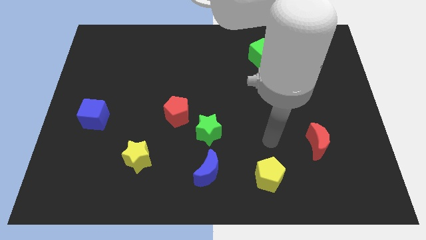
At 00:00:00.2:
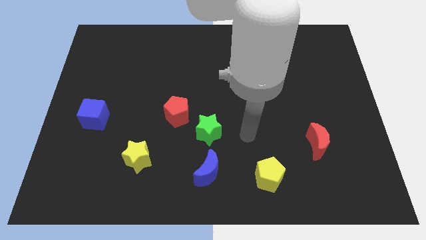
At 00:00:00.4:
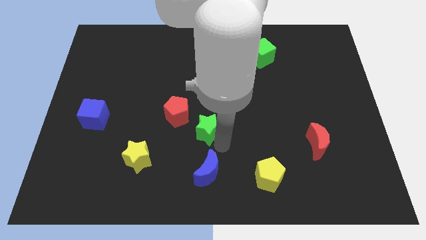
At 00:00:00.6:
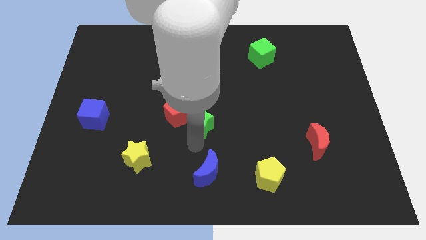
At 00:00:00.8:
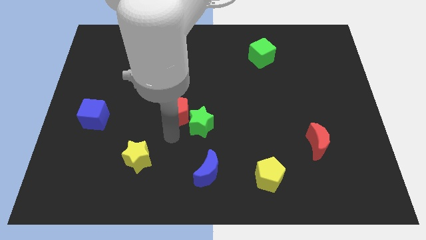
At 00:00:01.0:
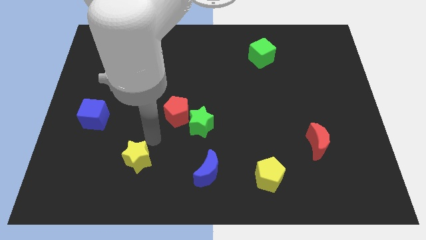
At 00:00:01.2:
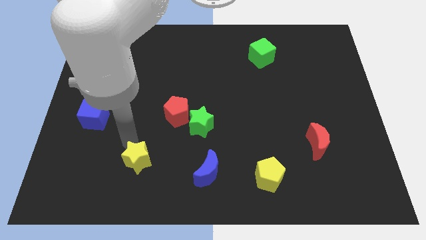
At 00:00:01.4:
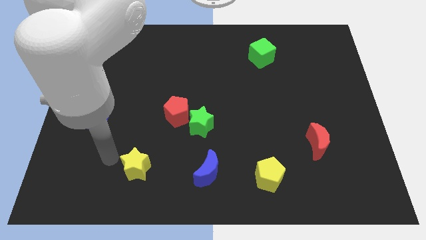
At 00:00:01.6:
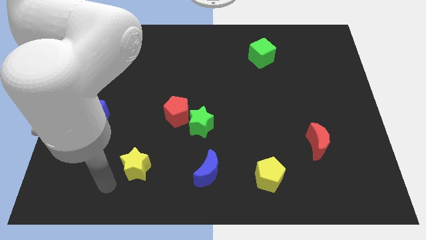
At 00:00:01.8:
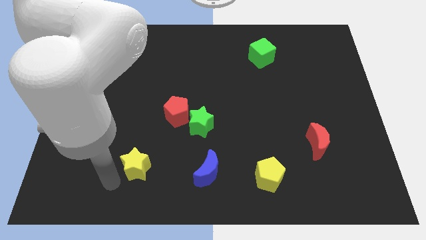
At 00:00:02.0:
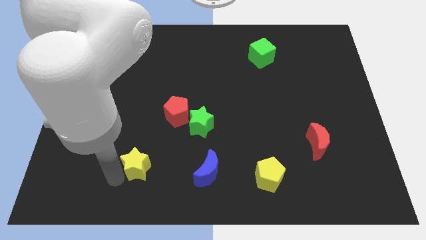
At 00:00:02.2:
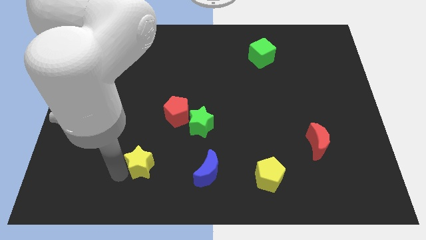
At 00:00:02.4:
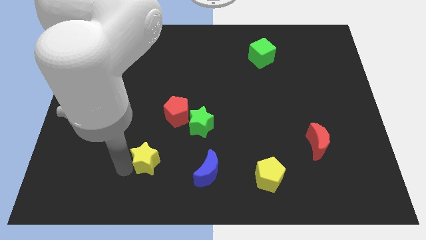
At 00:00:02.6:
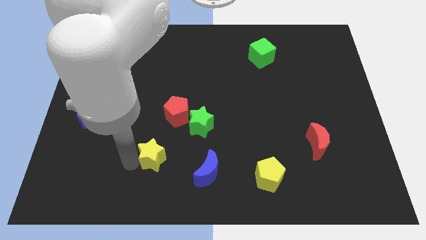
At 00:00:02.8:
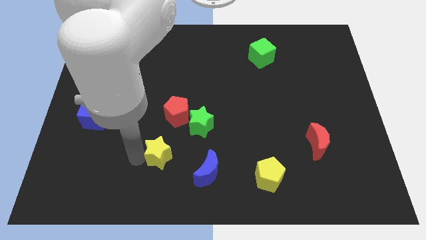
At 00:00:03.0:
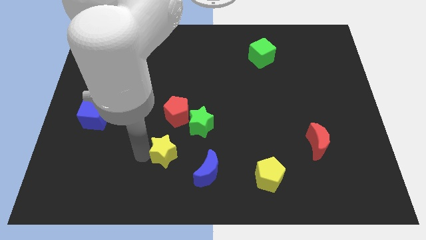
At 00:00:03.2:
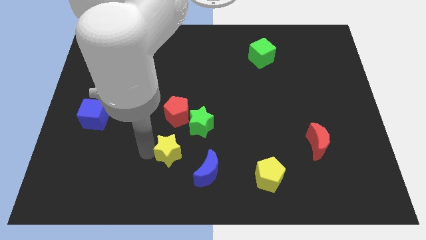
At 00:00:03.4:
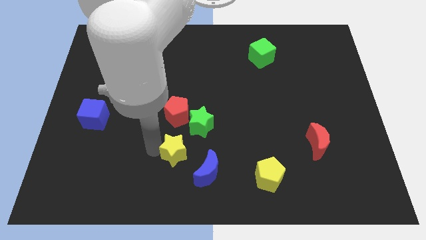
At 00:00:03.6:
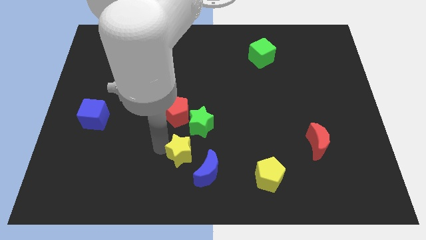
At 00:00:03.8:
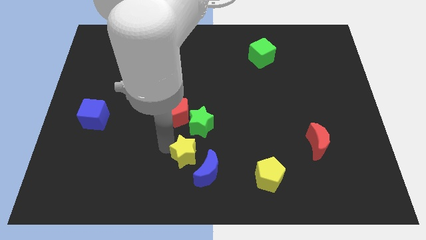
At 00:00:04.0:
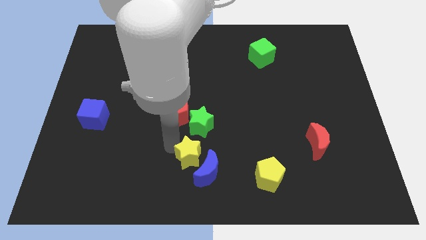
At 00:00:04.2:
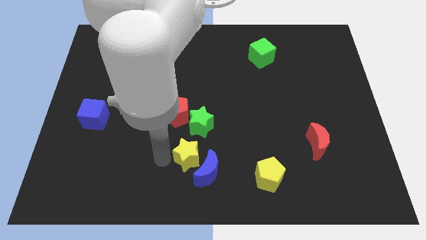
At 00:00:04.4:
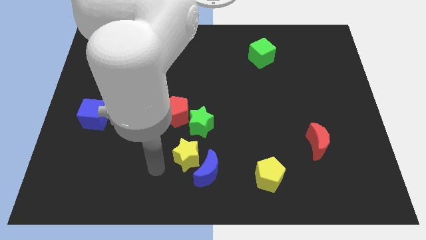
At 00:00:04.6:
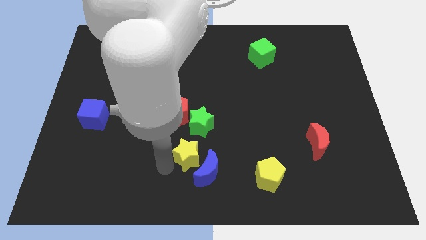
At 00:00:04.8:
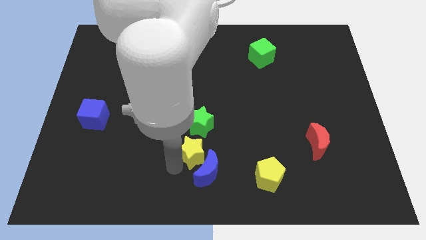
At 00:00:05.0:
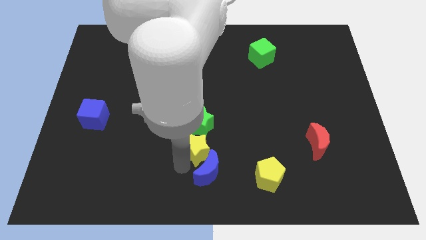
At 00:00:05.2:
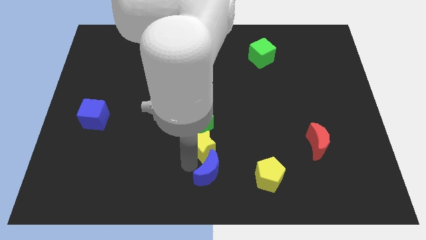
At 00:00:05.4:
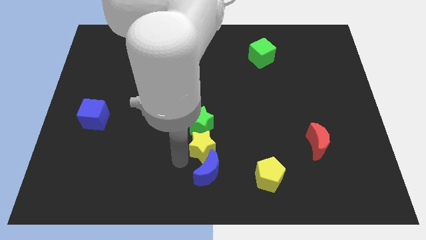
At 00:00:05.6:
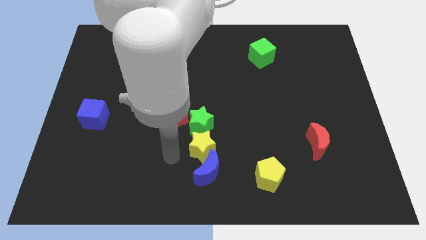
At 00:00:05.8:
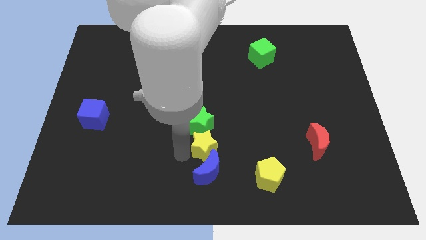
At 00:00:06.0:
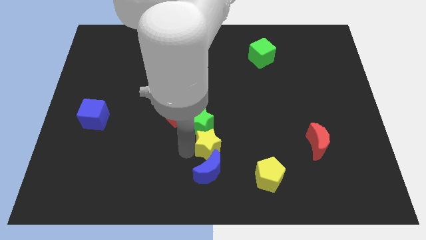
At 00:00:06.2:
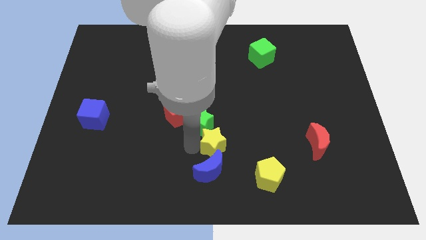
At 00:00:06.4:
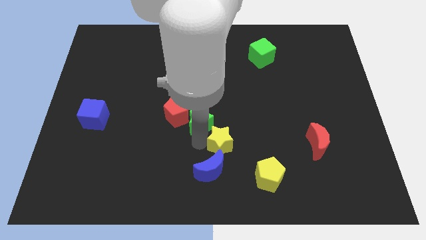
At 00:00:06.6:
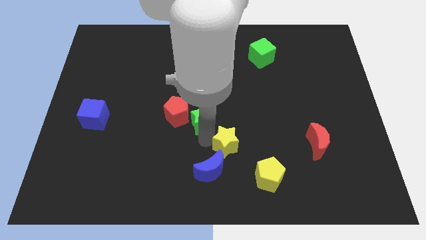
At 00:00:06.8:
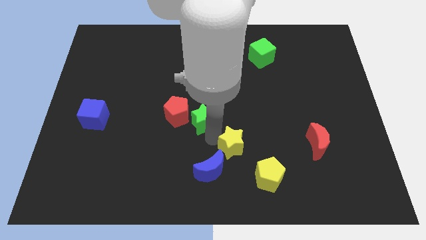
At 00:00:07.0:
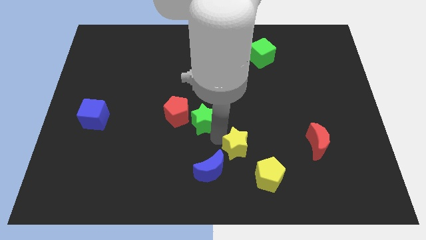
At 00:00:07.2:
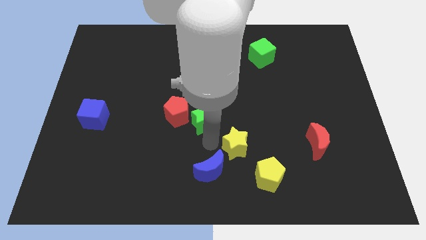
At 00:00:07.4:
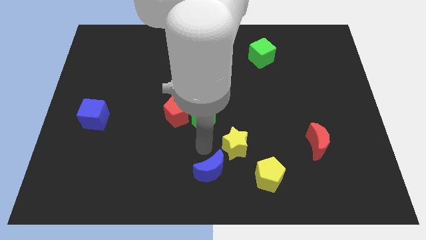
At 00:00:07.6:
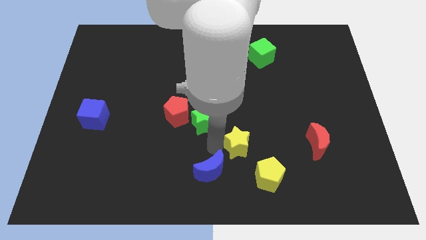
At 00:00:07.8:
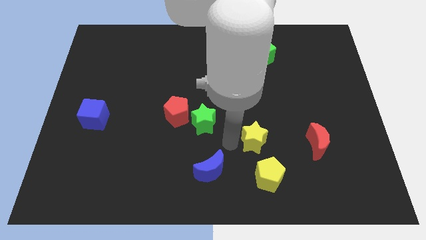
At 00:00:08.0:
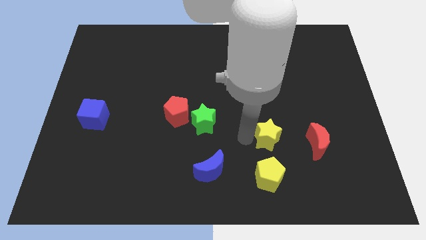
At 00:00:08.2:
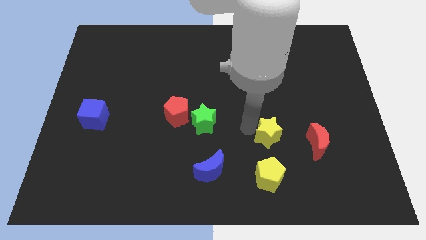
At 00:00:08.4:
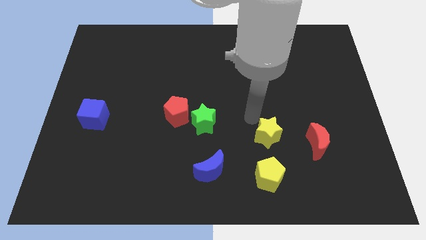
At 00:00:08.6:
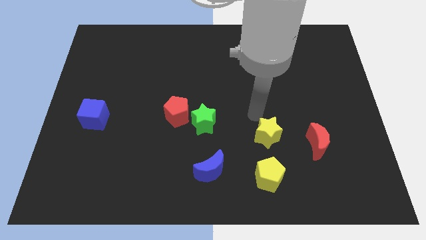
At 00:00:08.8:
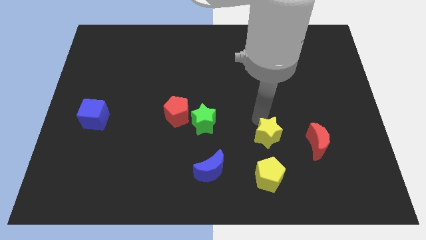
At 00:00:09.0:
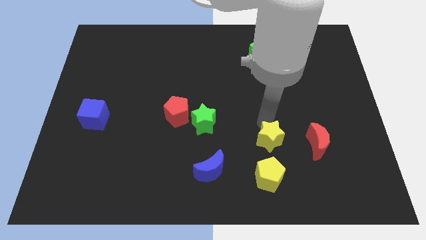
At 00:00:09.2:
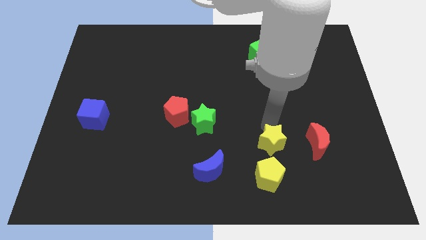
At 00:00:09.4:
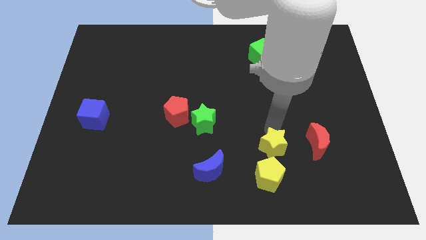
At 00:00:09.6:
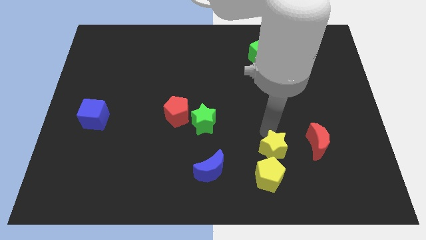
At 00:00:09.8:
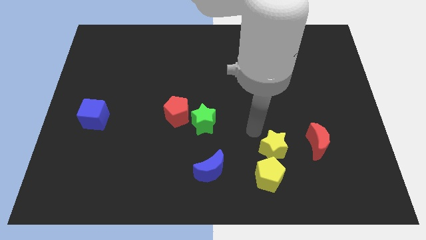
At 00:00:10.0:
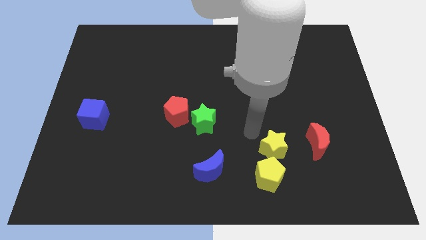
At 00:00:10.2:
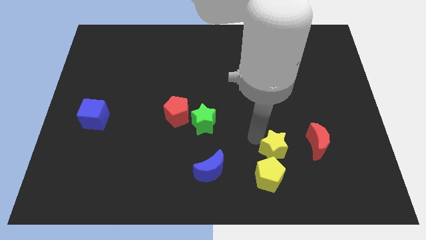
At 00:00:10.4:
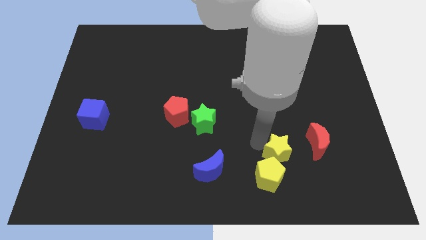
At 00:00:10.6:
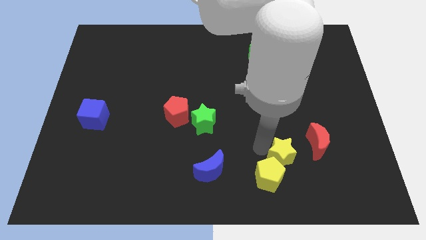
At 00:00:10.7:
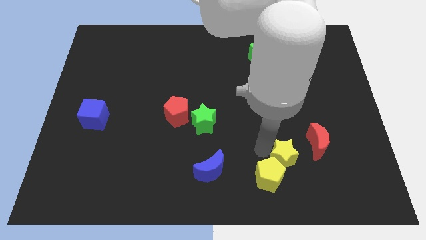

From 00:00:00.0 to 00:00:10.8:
slide the yellow star to the right side of the yellow pentagon

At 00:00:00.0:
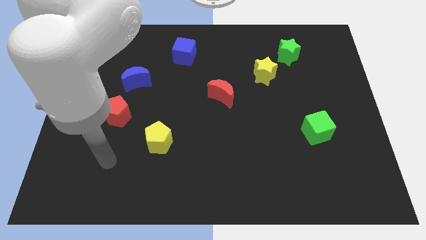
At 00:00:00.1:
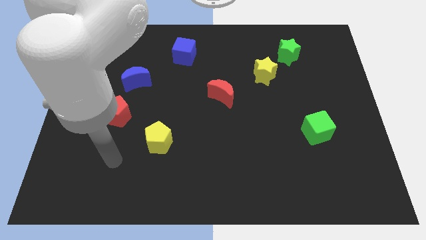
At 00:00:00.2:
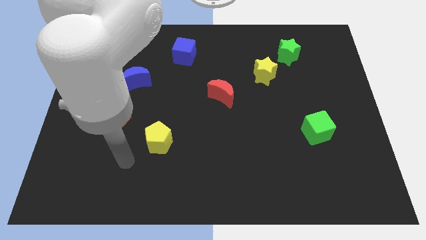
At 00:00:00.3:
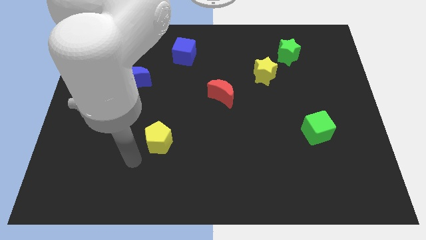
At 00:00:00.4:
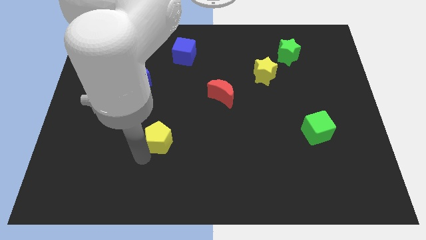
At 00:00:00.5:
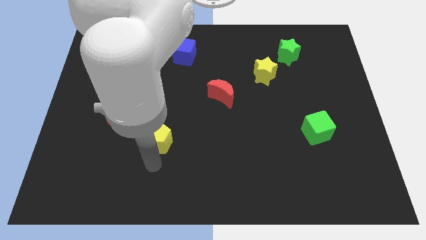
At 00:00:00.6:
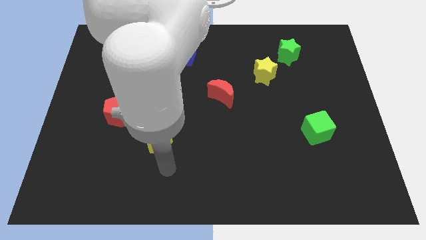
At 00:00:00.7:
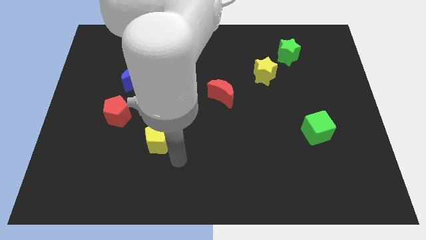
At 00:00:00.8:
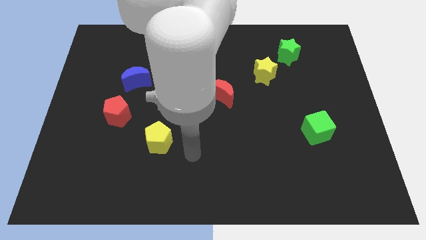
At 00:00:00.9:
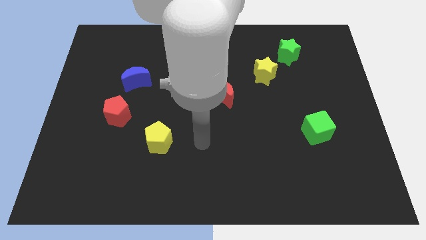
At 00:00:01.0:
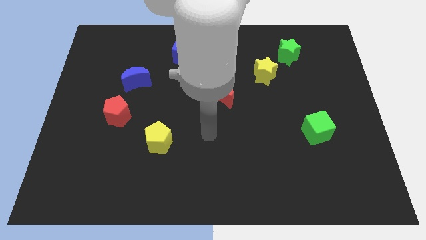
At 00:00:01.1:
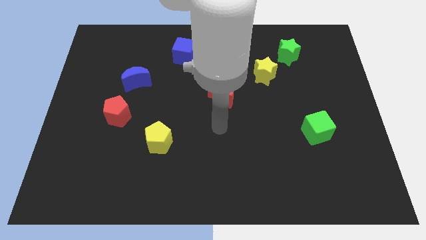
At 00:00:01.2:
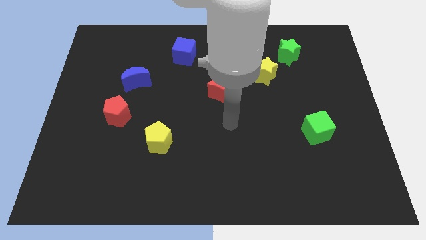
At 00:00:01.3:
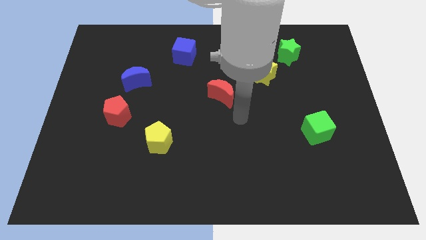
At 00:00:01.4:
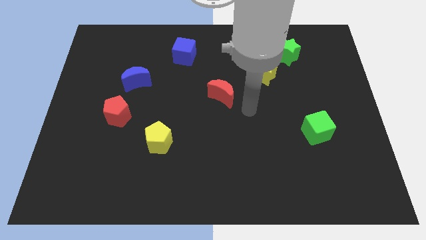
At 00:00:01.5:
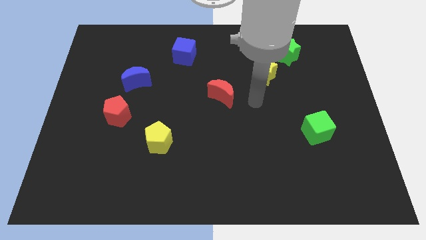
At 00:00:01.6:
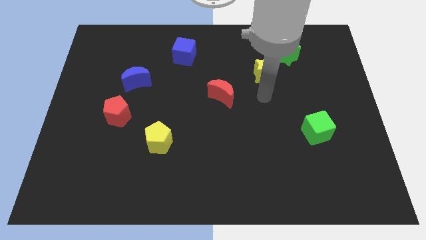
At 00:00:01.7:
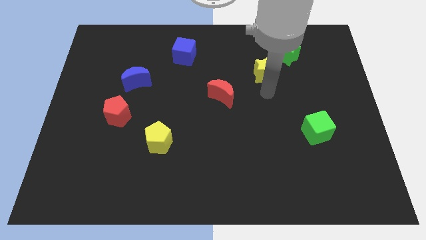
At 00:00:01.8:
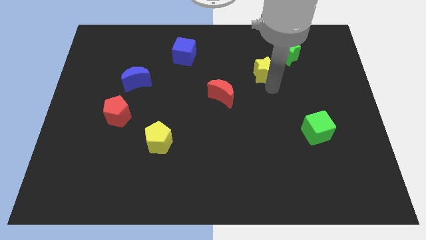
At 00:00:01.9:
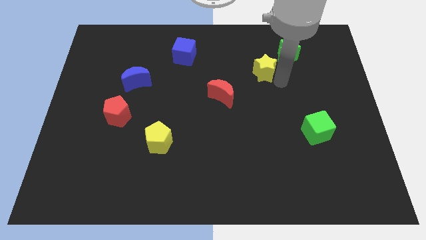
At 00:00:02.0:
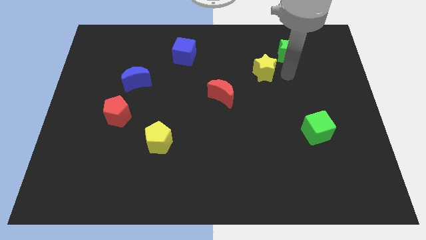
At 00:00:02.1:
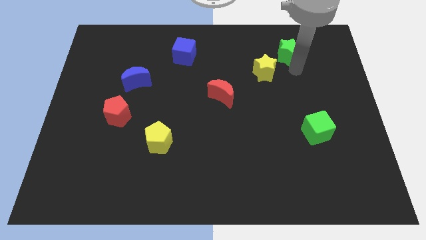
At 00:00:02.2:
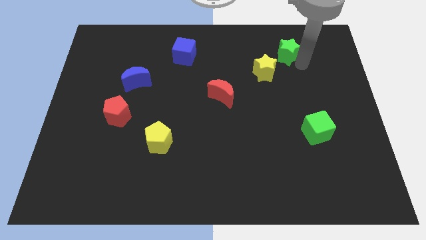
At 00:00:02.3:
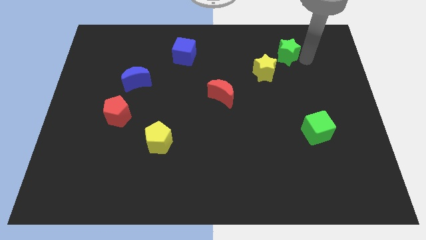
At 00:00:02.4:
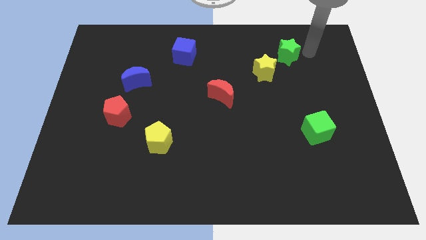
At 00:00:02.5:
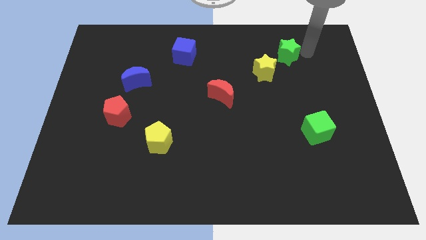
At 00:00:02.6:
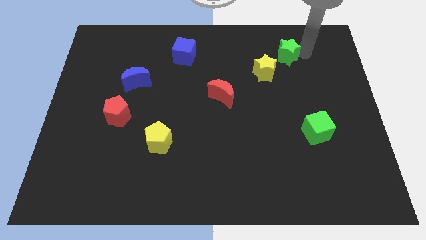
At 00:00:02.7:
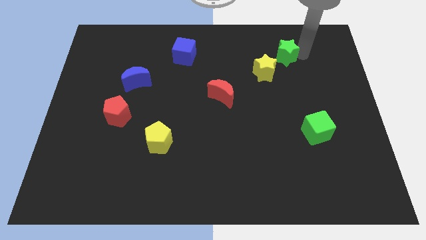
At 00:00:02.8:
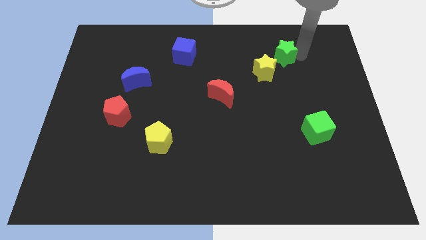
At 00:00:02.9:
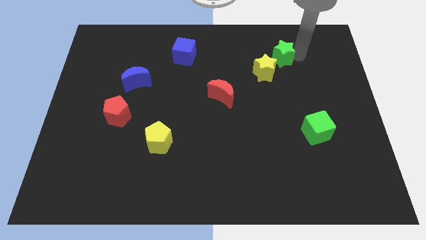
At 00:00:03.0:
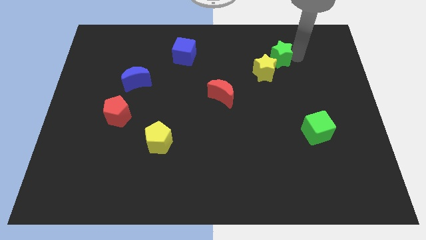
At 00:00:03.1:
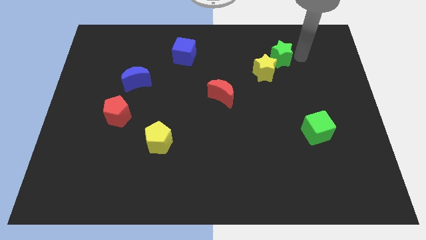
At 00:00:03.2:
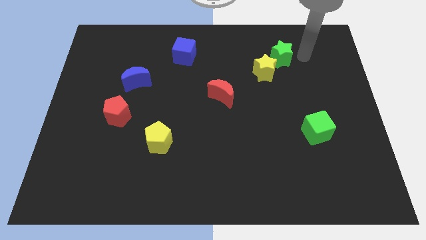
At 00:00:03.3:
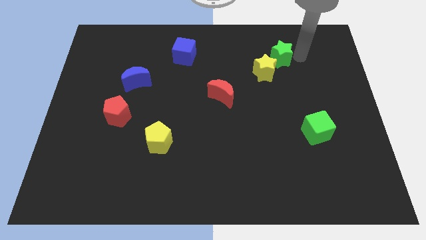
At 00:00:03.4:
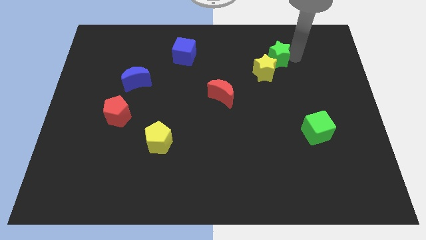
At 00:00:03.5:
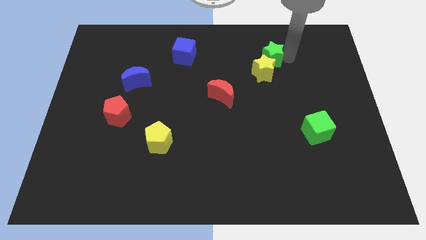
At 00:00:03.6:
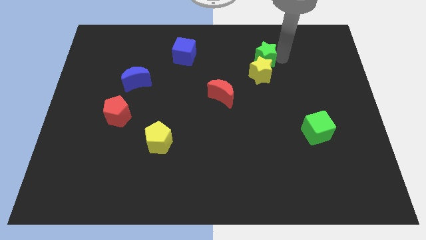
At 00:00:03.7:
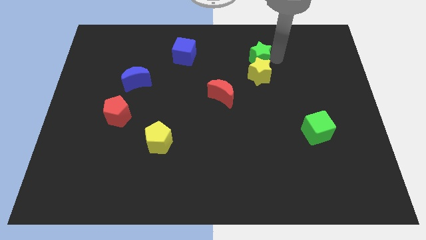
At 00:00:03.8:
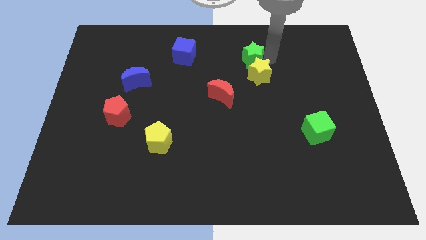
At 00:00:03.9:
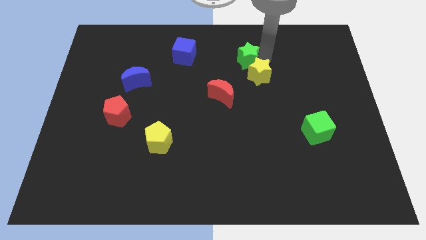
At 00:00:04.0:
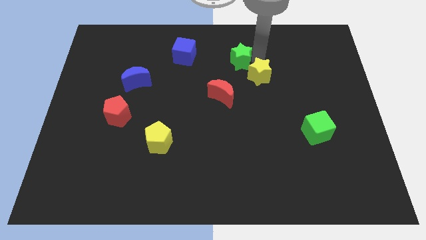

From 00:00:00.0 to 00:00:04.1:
move the green star to the right of the blue cube
